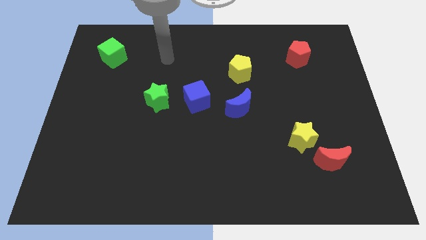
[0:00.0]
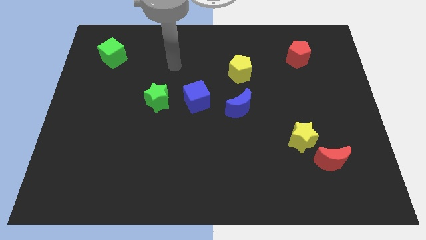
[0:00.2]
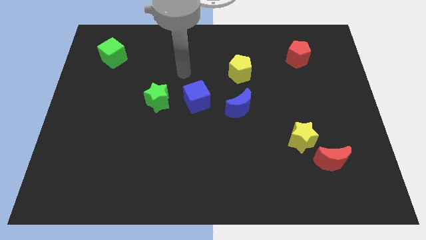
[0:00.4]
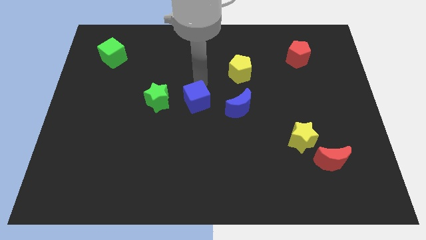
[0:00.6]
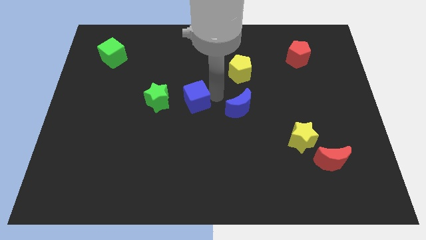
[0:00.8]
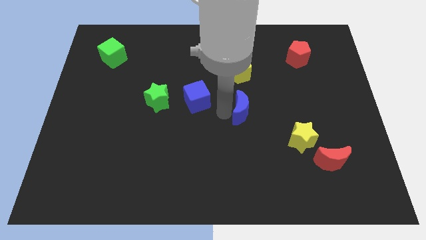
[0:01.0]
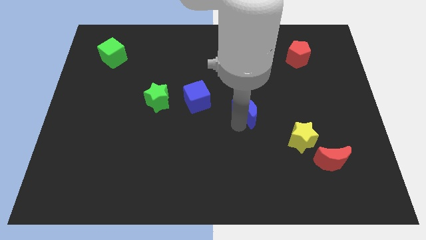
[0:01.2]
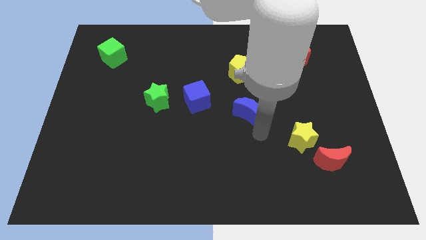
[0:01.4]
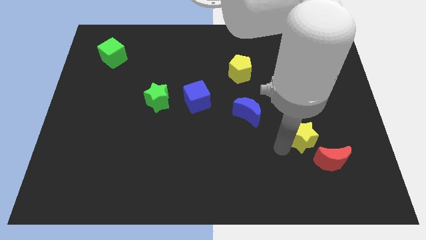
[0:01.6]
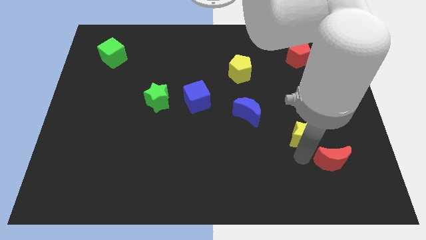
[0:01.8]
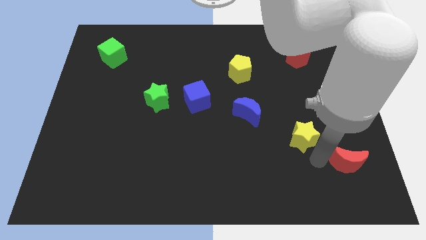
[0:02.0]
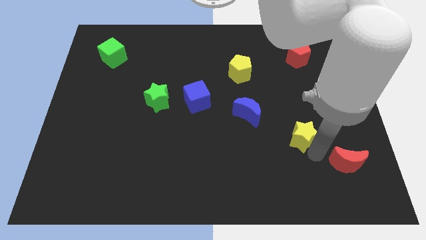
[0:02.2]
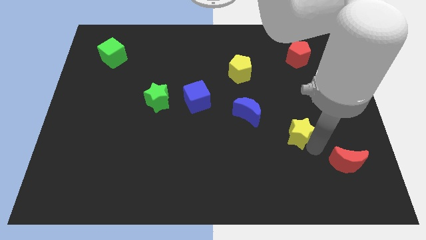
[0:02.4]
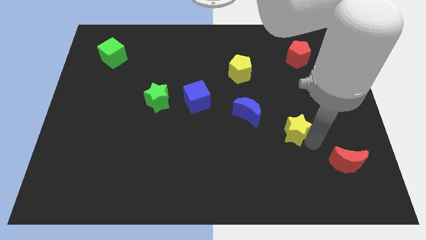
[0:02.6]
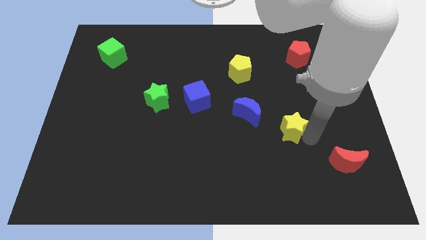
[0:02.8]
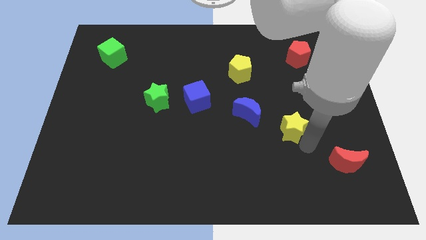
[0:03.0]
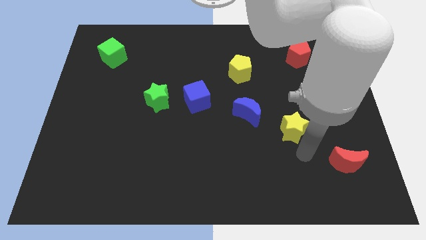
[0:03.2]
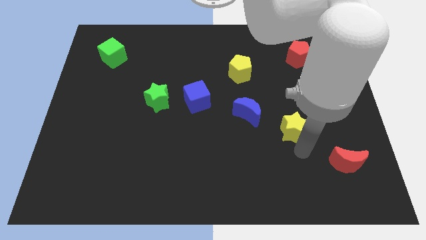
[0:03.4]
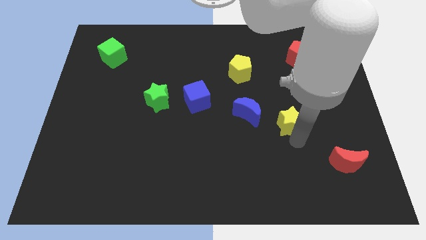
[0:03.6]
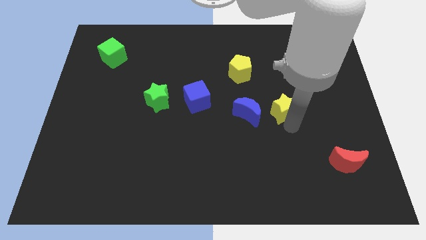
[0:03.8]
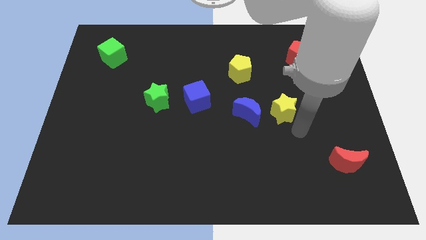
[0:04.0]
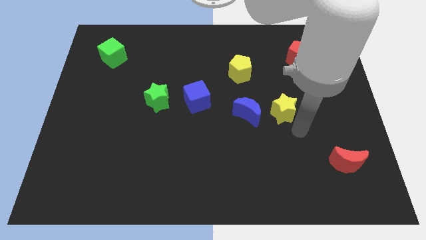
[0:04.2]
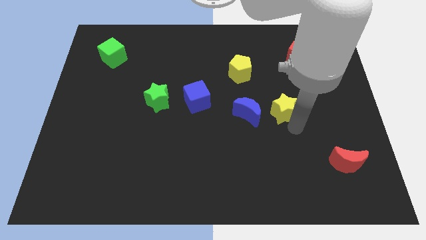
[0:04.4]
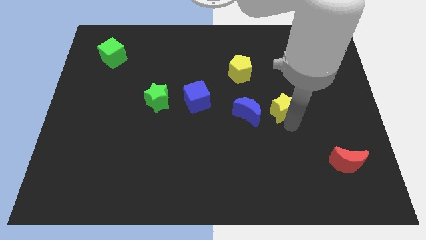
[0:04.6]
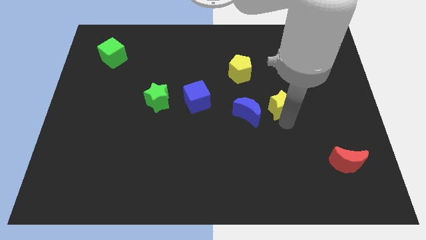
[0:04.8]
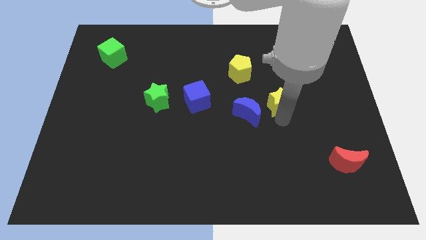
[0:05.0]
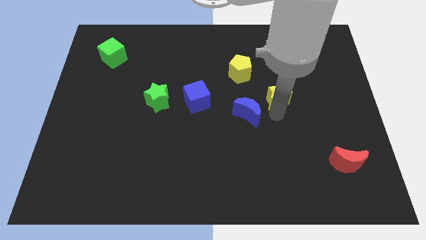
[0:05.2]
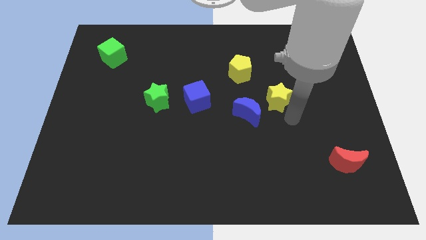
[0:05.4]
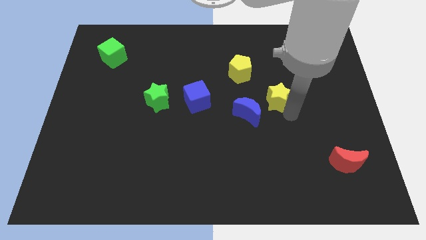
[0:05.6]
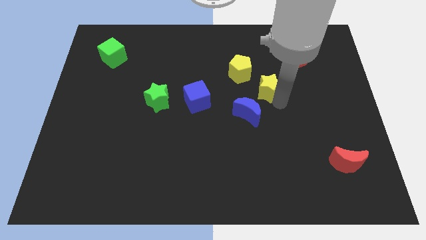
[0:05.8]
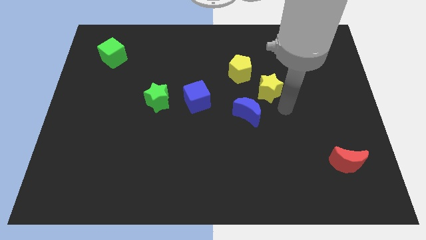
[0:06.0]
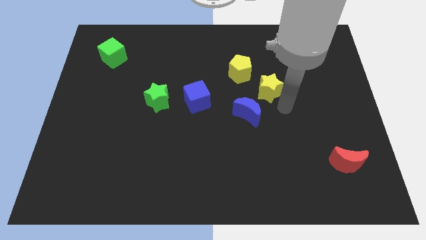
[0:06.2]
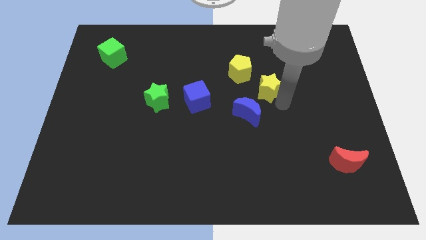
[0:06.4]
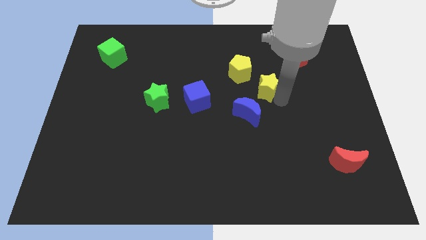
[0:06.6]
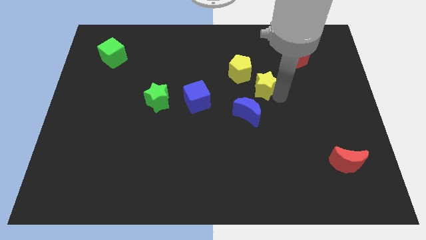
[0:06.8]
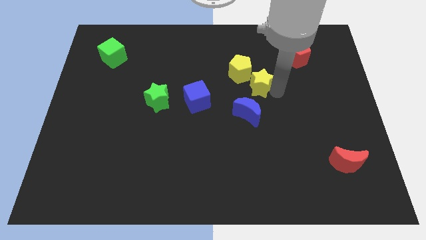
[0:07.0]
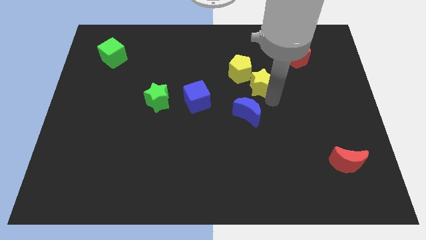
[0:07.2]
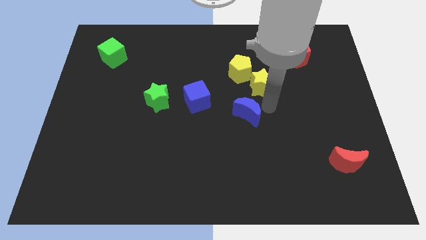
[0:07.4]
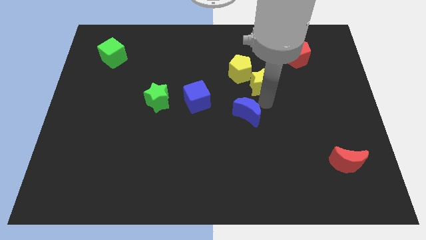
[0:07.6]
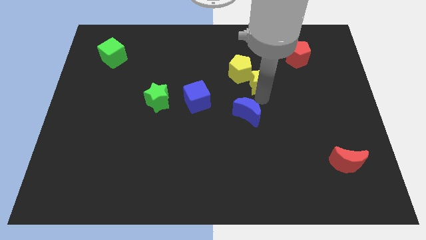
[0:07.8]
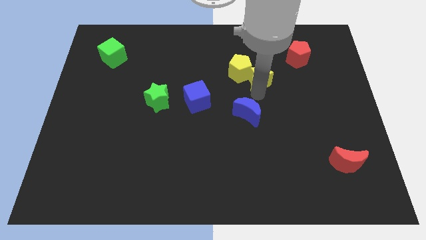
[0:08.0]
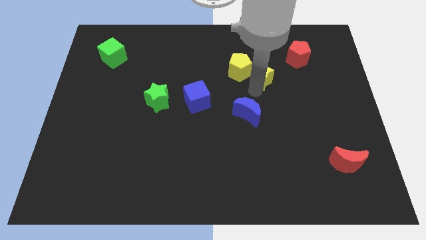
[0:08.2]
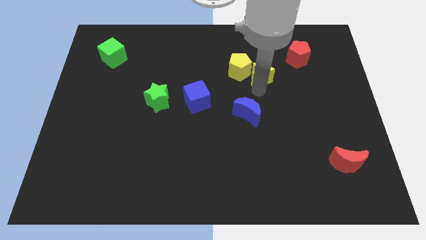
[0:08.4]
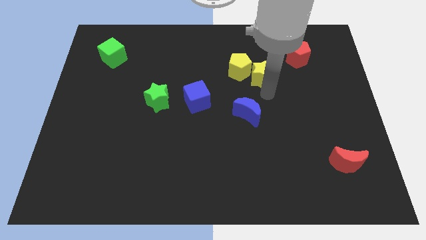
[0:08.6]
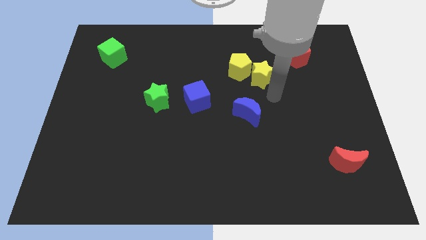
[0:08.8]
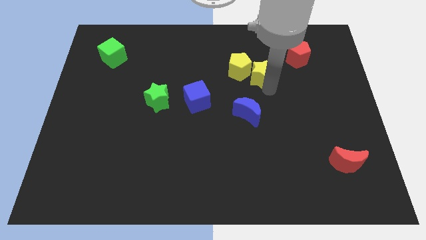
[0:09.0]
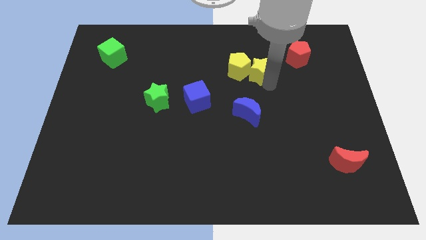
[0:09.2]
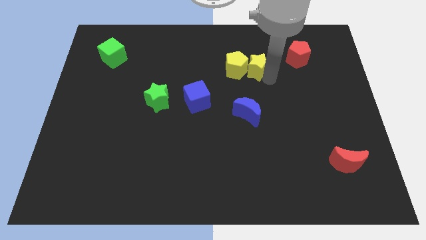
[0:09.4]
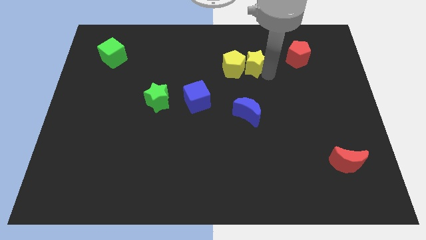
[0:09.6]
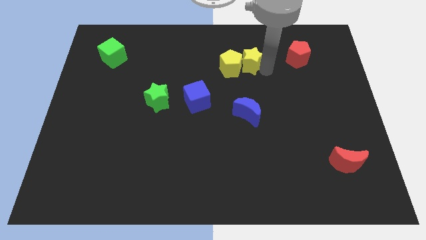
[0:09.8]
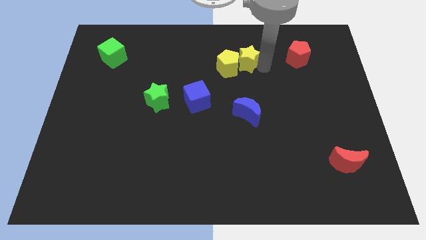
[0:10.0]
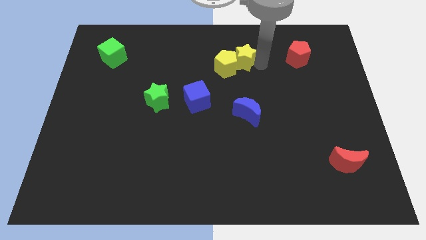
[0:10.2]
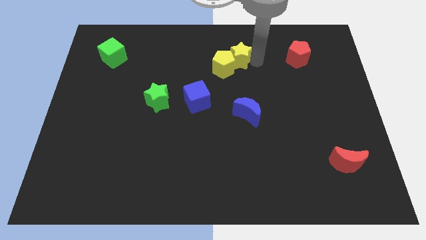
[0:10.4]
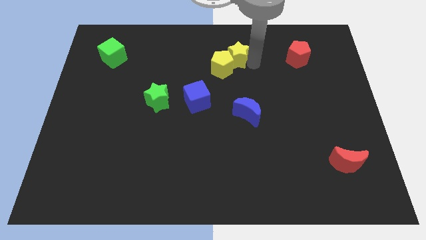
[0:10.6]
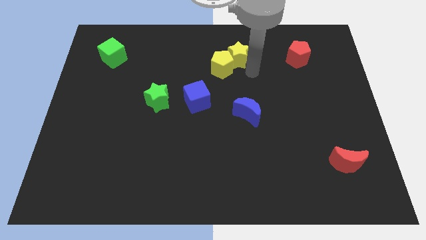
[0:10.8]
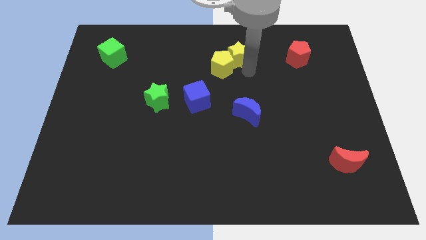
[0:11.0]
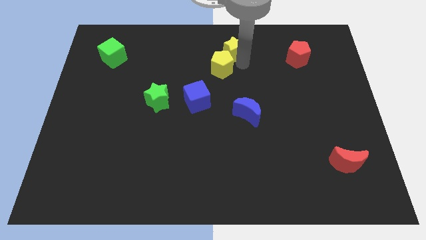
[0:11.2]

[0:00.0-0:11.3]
push the yellow star to the top
